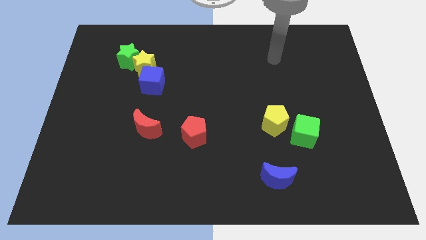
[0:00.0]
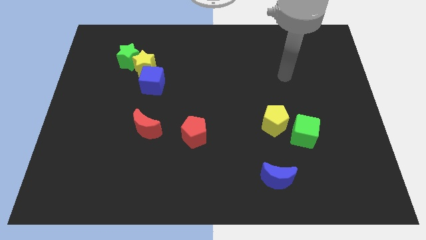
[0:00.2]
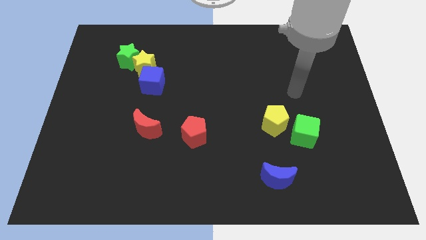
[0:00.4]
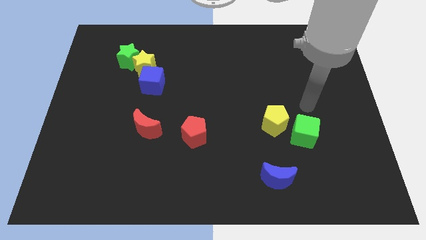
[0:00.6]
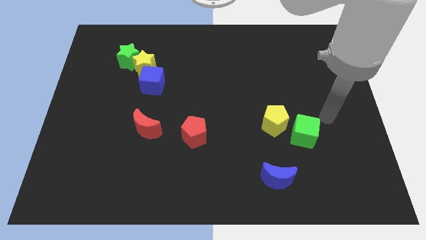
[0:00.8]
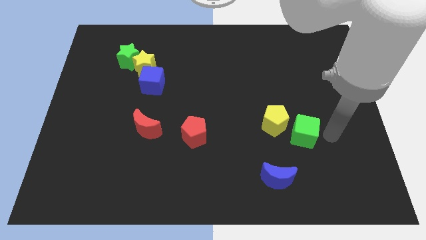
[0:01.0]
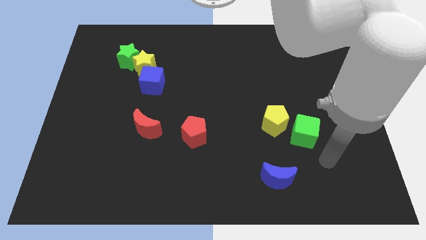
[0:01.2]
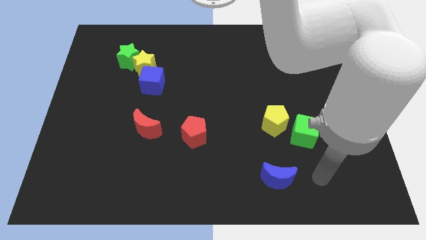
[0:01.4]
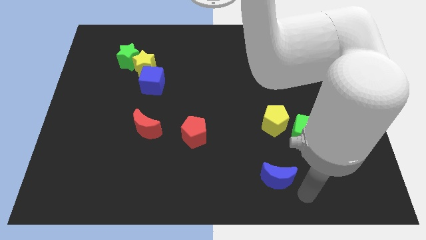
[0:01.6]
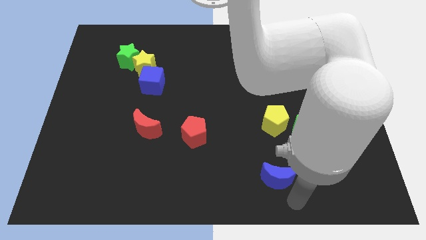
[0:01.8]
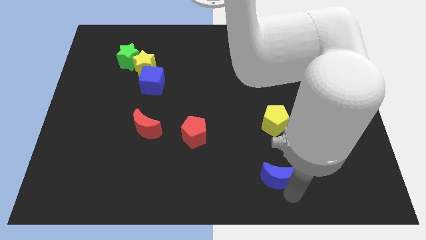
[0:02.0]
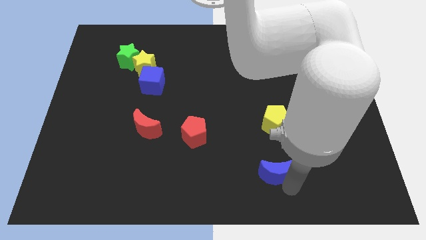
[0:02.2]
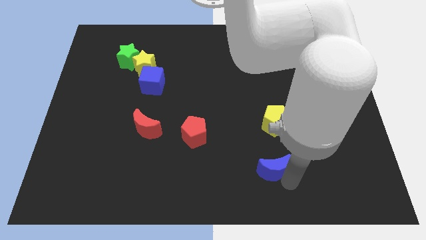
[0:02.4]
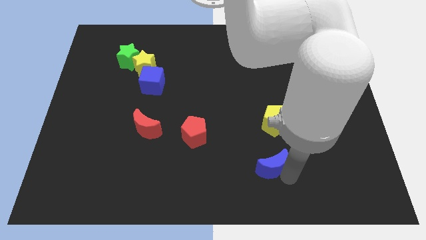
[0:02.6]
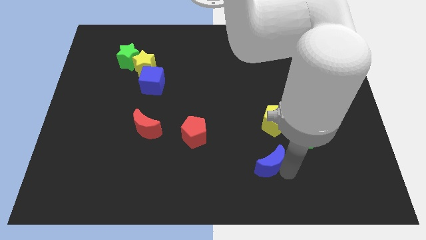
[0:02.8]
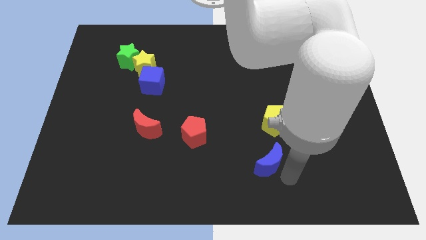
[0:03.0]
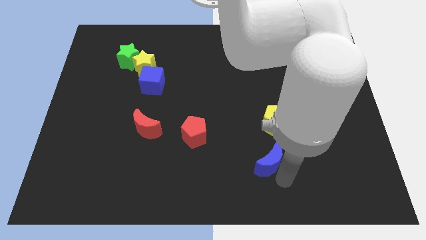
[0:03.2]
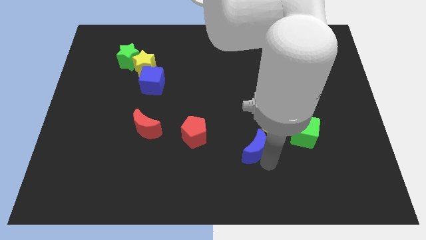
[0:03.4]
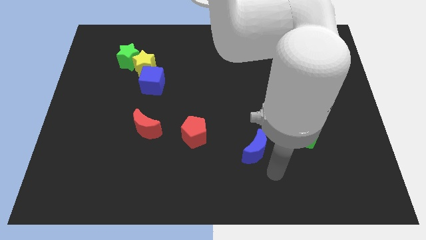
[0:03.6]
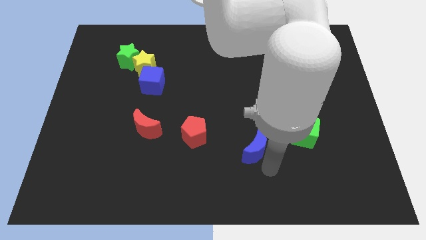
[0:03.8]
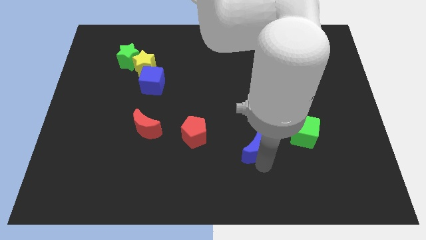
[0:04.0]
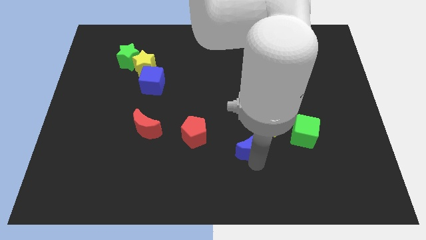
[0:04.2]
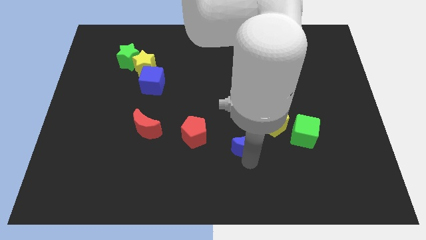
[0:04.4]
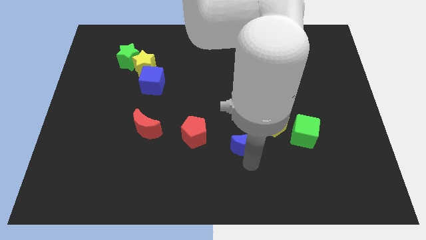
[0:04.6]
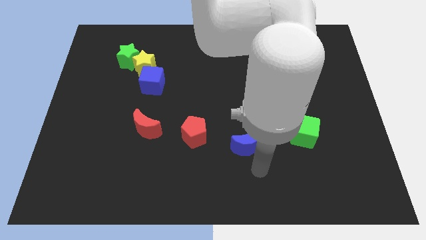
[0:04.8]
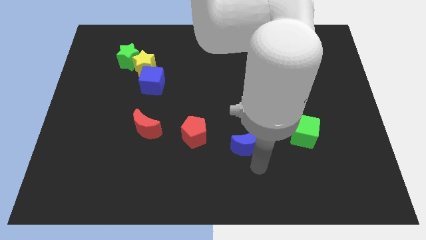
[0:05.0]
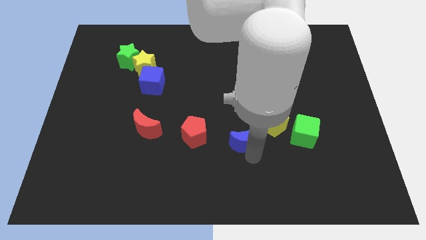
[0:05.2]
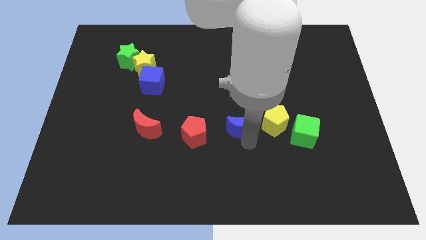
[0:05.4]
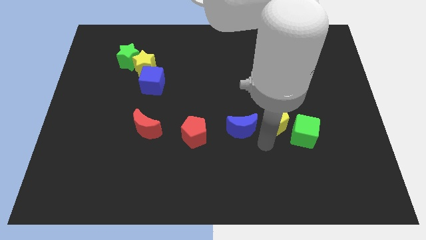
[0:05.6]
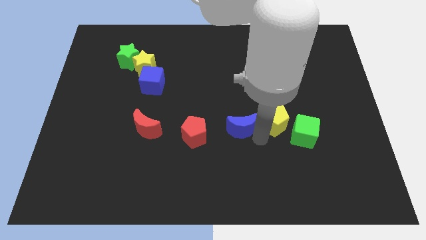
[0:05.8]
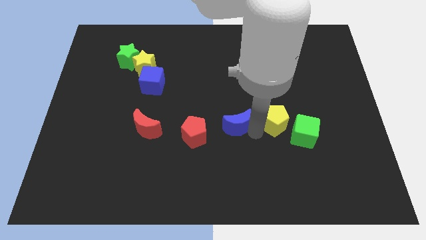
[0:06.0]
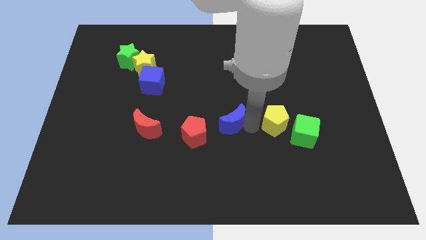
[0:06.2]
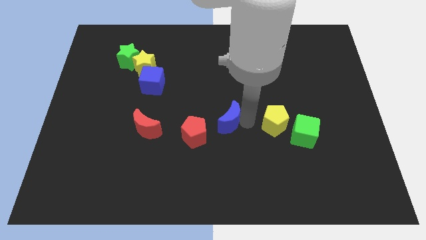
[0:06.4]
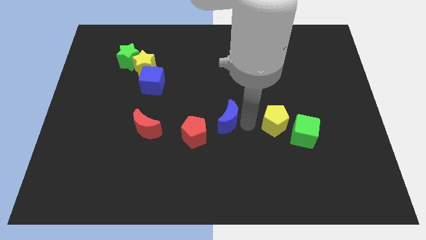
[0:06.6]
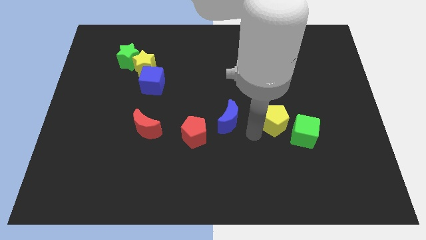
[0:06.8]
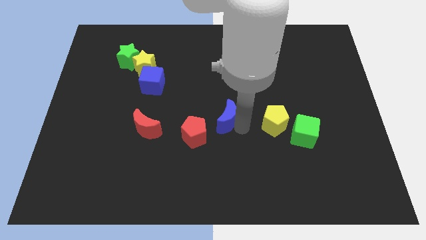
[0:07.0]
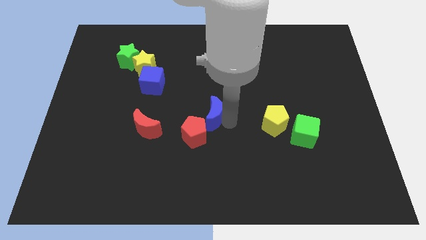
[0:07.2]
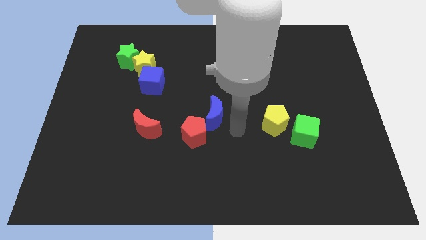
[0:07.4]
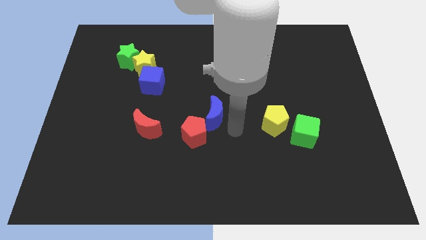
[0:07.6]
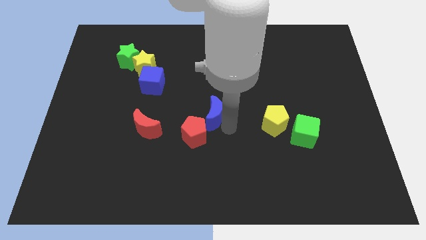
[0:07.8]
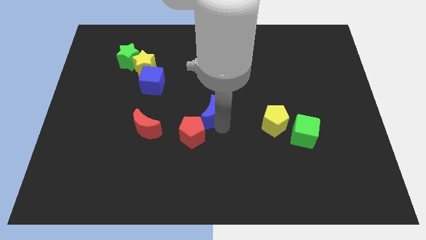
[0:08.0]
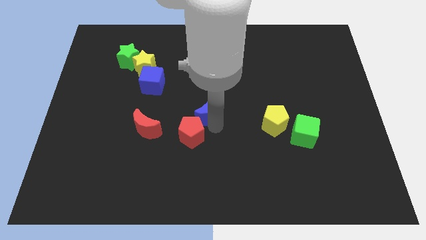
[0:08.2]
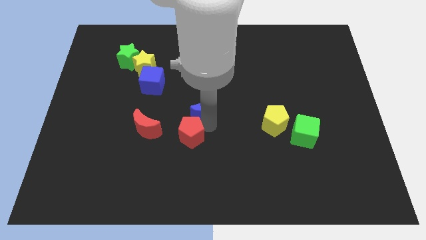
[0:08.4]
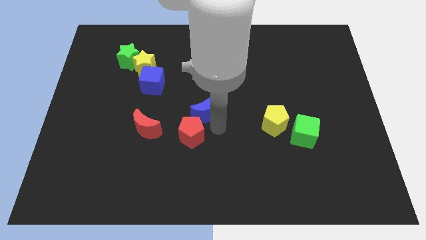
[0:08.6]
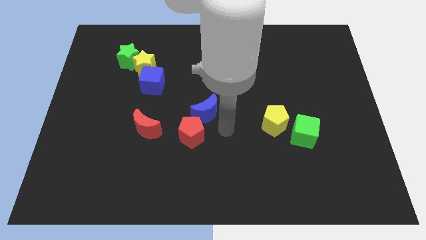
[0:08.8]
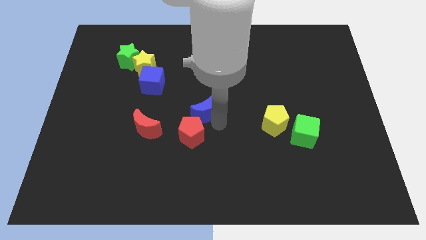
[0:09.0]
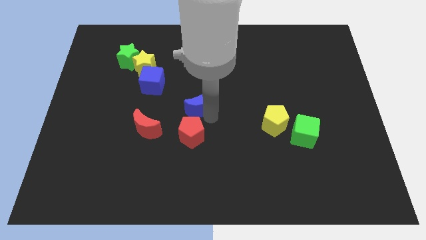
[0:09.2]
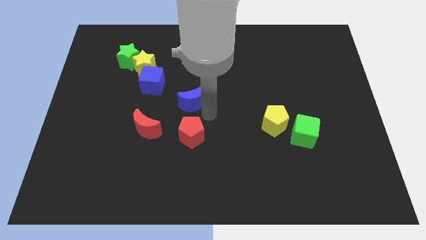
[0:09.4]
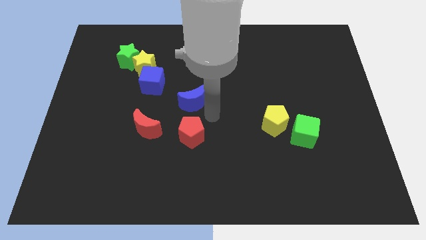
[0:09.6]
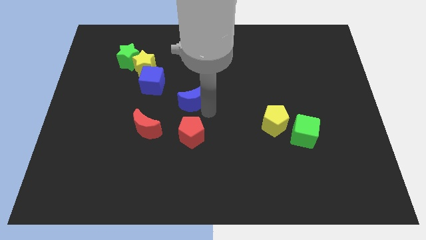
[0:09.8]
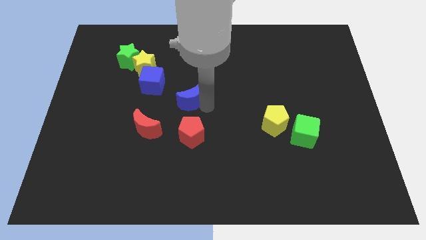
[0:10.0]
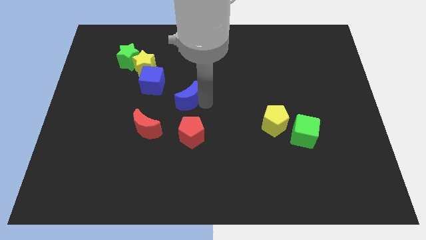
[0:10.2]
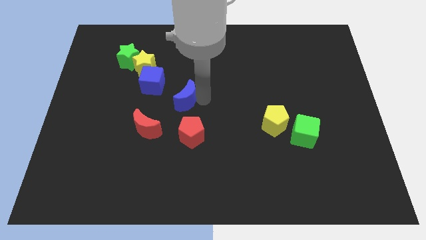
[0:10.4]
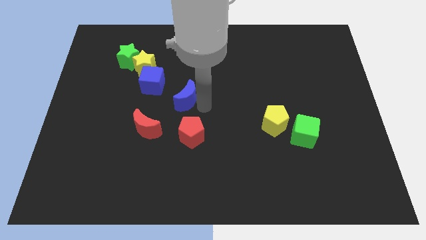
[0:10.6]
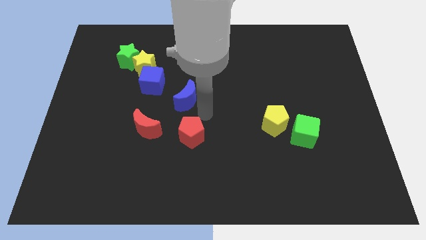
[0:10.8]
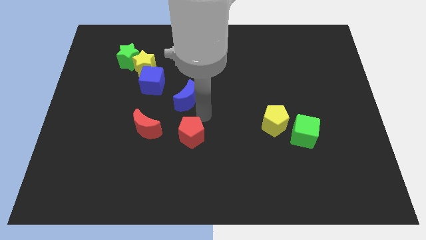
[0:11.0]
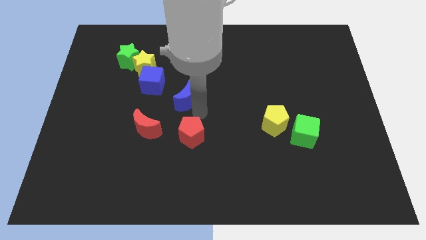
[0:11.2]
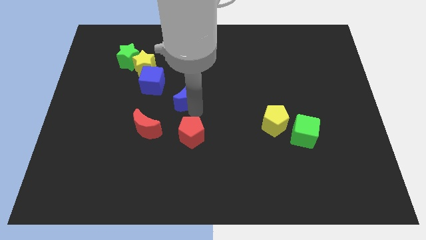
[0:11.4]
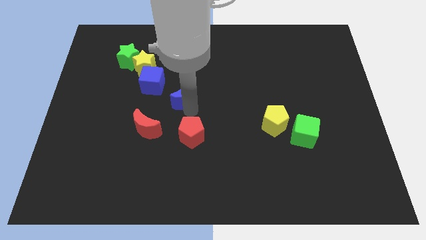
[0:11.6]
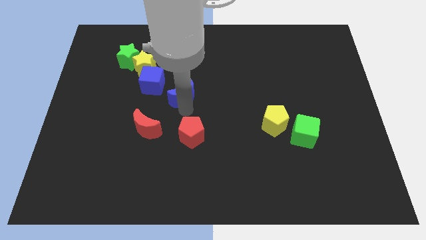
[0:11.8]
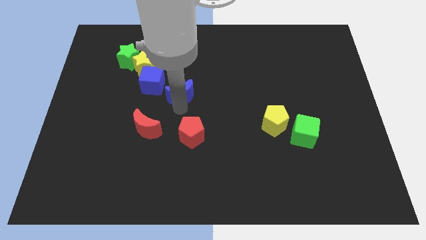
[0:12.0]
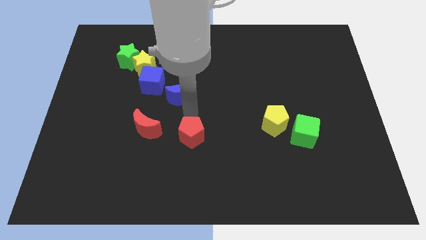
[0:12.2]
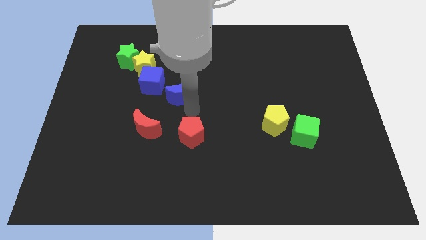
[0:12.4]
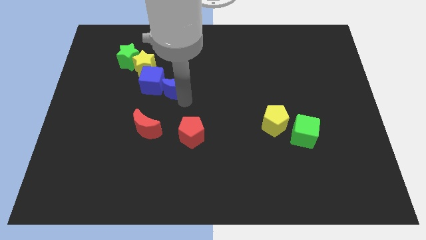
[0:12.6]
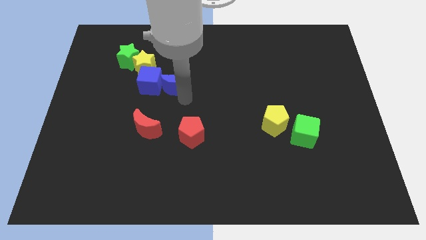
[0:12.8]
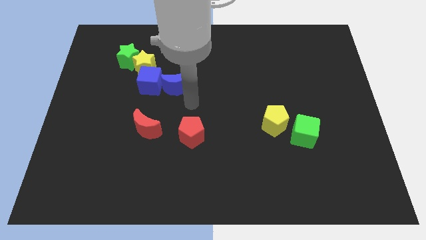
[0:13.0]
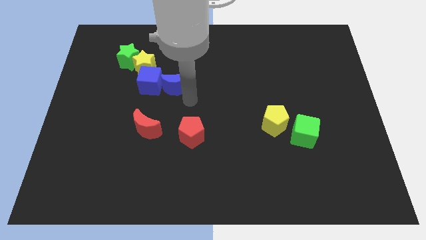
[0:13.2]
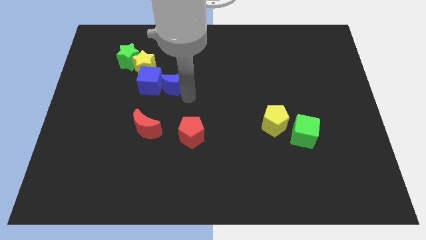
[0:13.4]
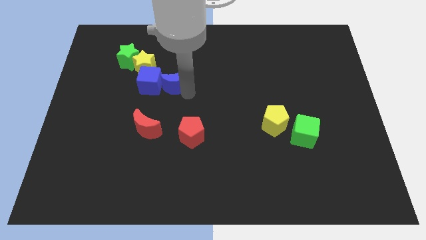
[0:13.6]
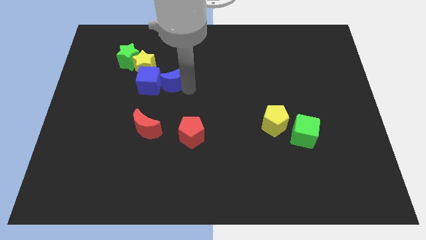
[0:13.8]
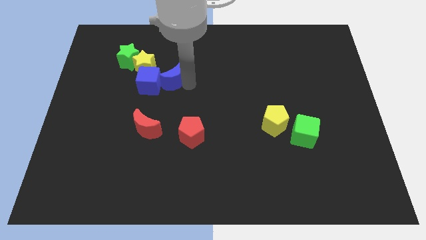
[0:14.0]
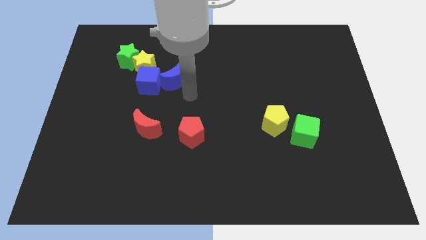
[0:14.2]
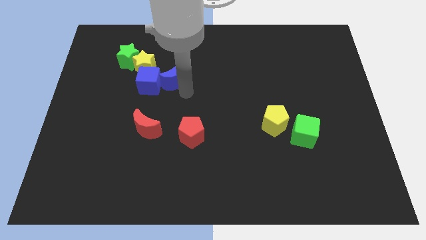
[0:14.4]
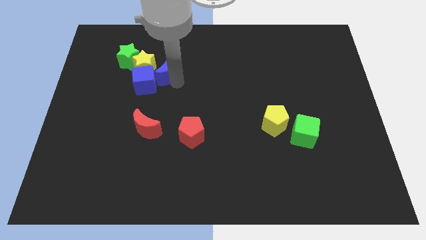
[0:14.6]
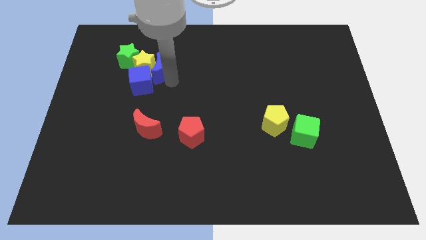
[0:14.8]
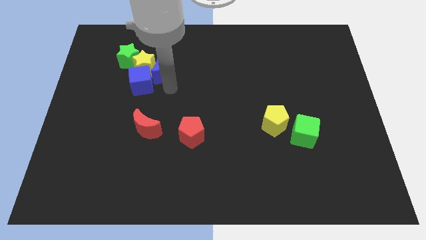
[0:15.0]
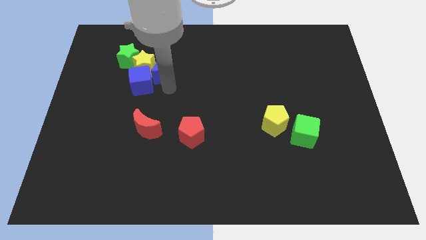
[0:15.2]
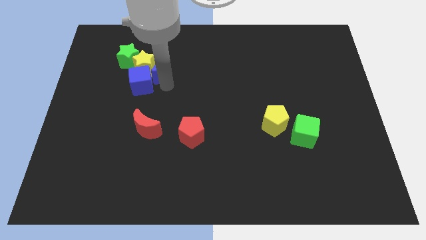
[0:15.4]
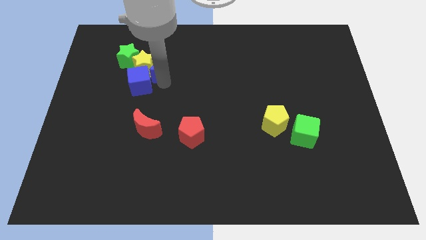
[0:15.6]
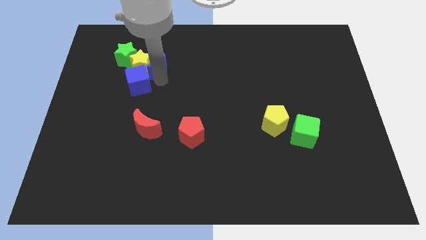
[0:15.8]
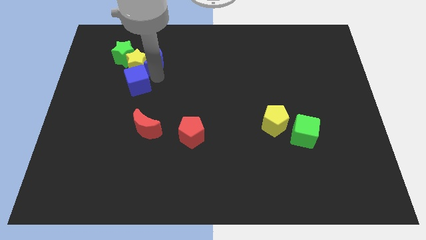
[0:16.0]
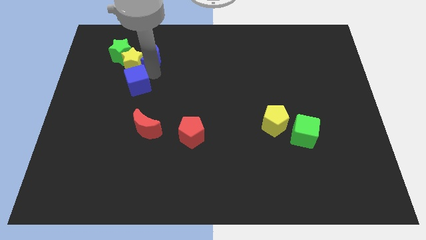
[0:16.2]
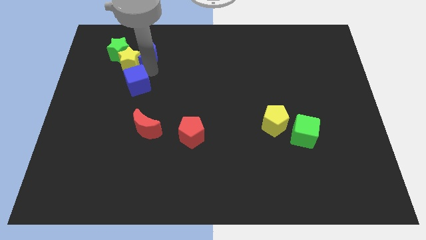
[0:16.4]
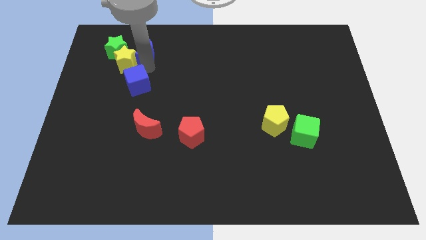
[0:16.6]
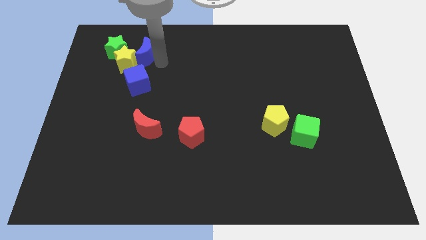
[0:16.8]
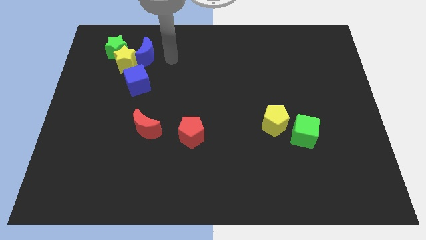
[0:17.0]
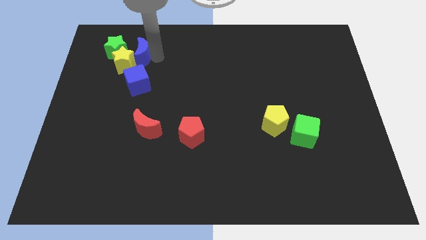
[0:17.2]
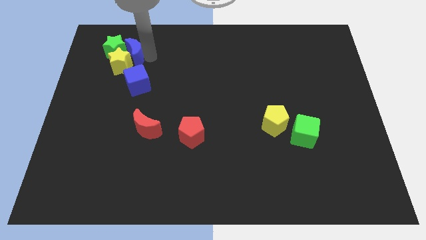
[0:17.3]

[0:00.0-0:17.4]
put the blue moon next to the green star
